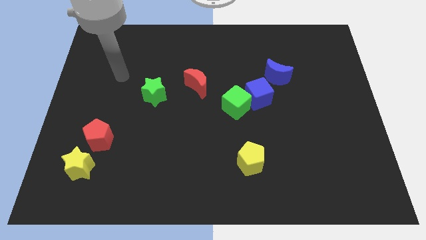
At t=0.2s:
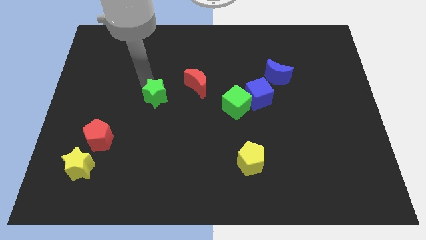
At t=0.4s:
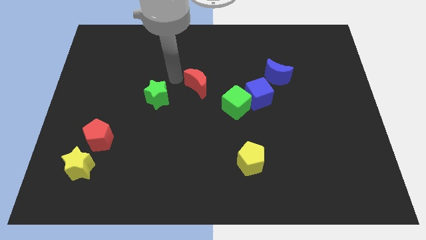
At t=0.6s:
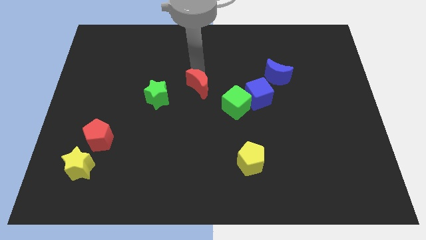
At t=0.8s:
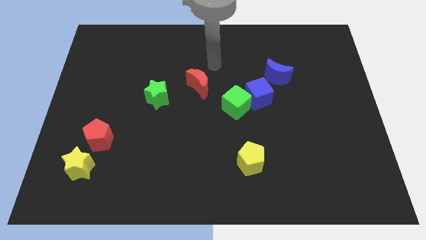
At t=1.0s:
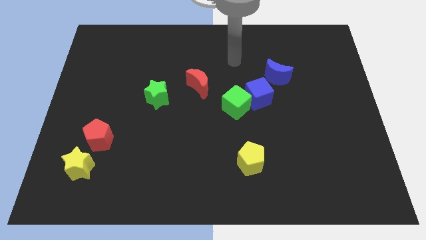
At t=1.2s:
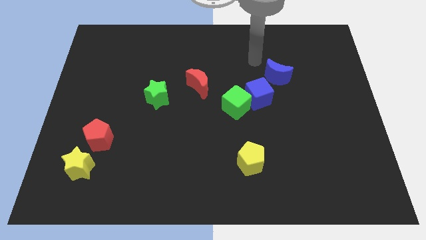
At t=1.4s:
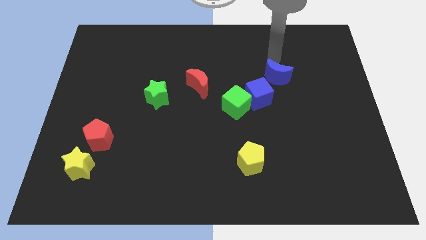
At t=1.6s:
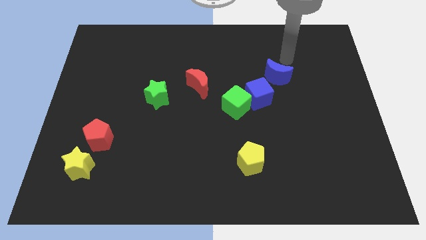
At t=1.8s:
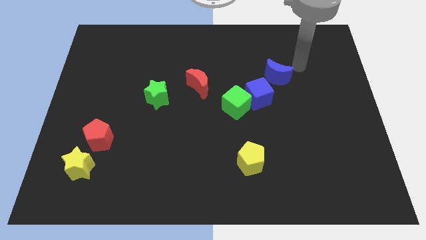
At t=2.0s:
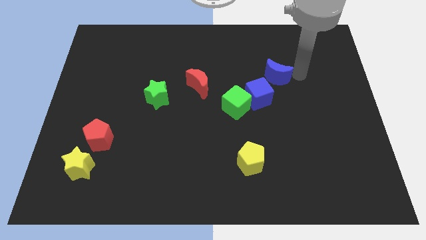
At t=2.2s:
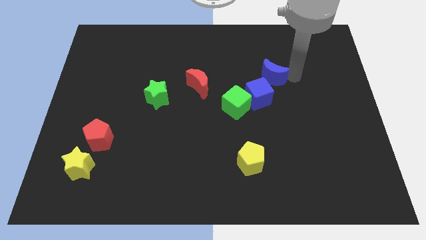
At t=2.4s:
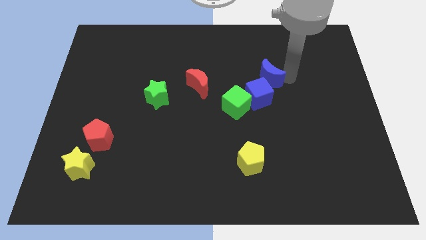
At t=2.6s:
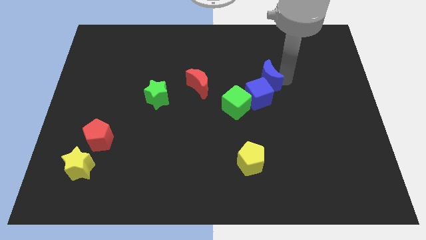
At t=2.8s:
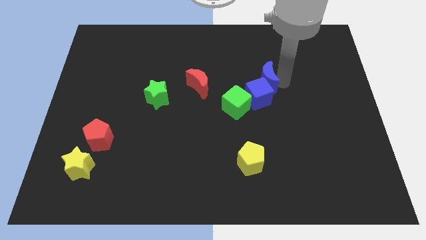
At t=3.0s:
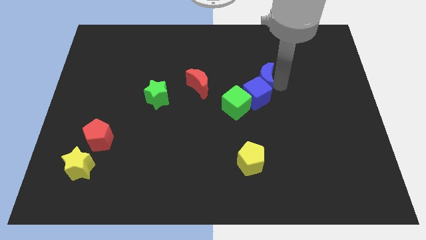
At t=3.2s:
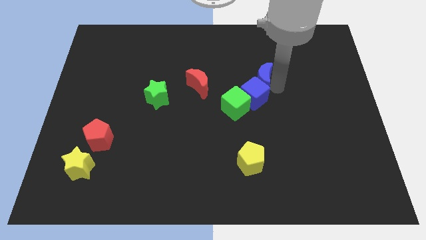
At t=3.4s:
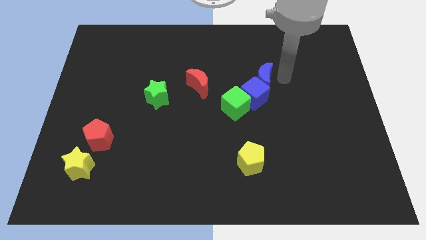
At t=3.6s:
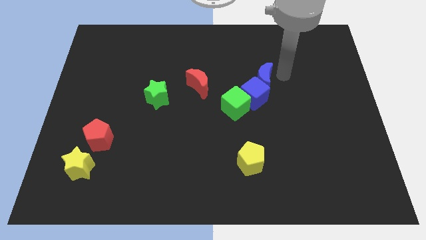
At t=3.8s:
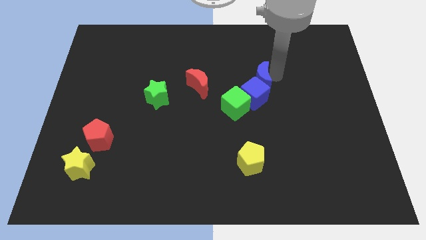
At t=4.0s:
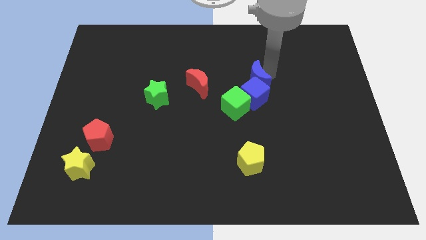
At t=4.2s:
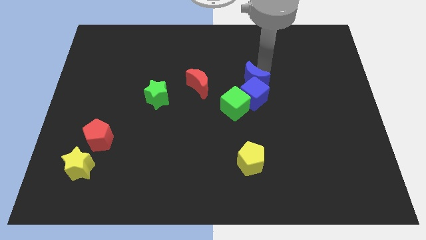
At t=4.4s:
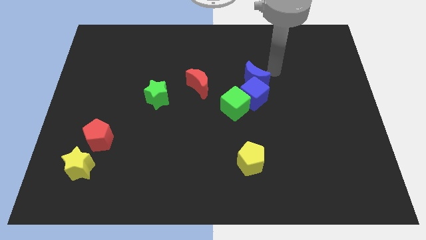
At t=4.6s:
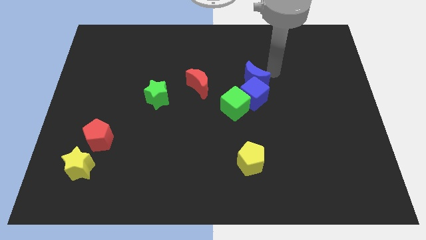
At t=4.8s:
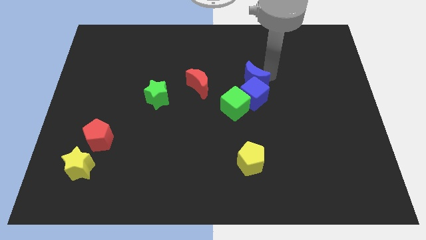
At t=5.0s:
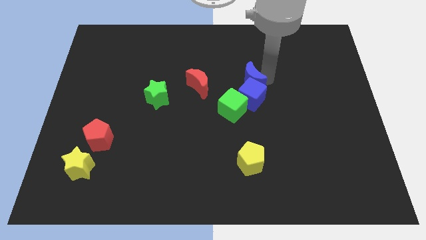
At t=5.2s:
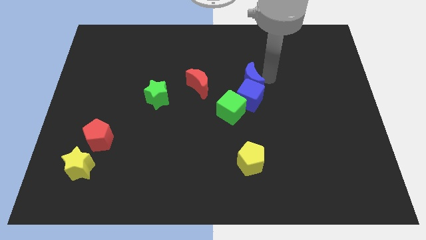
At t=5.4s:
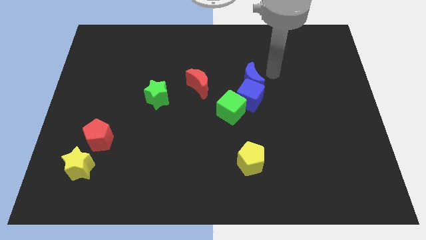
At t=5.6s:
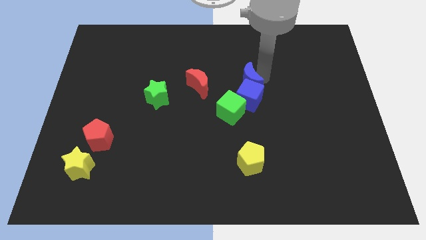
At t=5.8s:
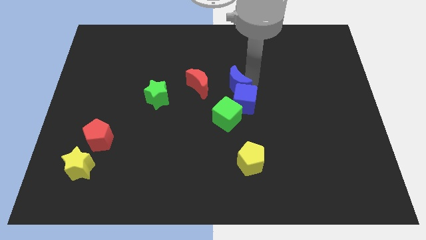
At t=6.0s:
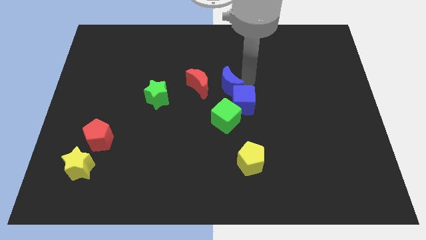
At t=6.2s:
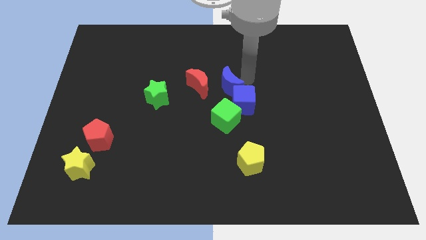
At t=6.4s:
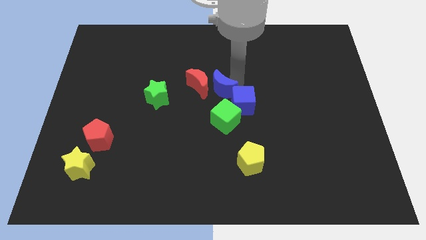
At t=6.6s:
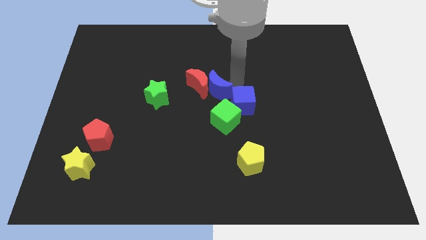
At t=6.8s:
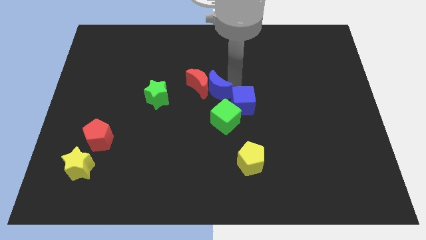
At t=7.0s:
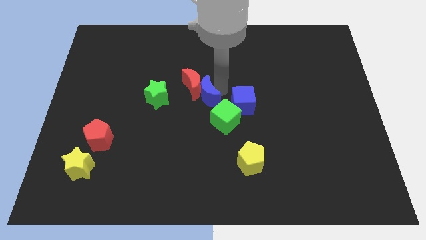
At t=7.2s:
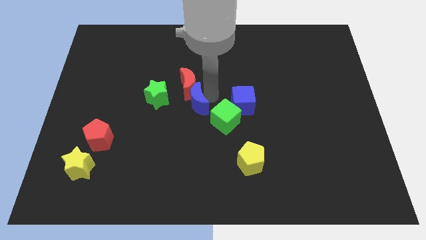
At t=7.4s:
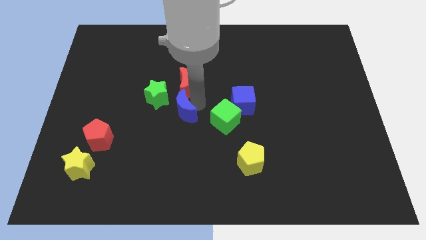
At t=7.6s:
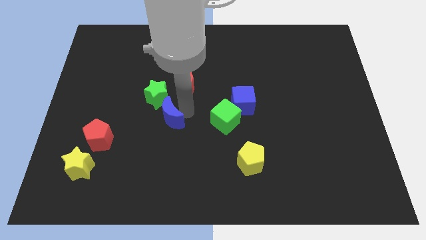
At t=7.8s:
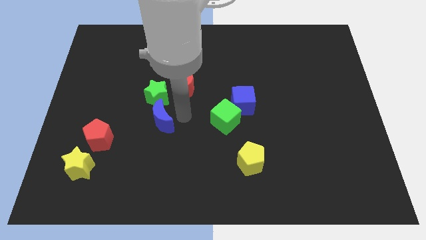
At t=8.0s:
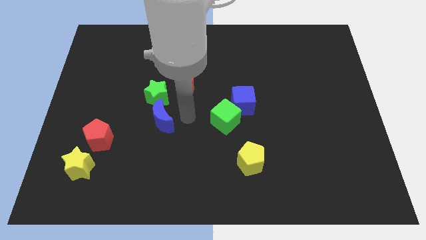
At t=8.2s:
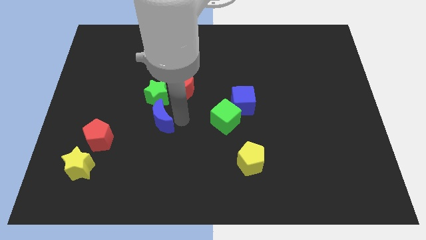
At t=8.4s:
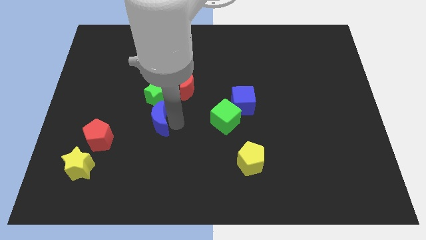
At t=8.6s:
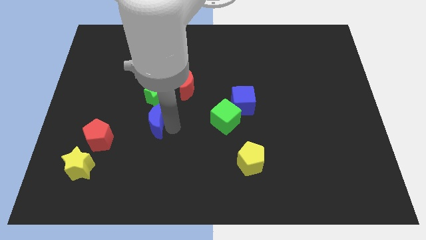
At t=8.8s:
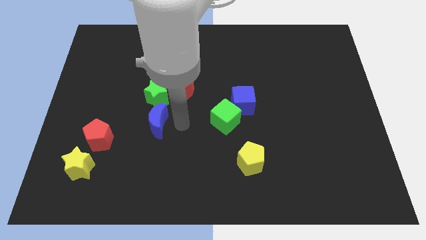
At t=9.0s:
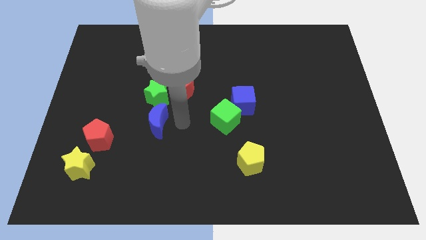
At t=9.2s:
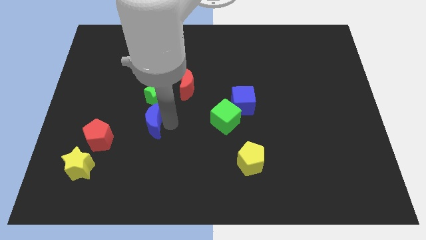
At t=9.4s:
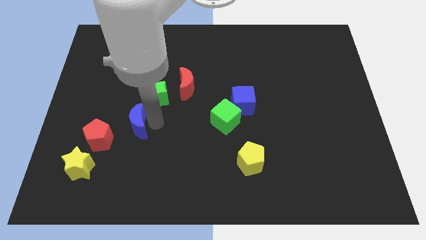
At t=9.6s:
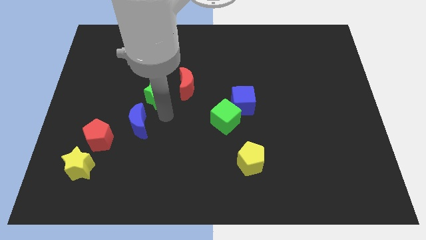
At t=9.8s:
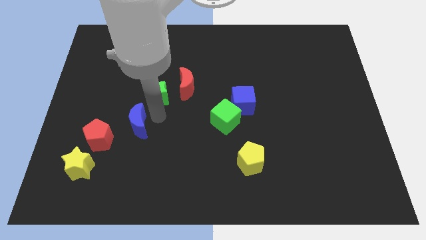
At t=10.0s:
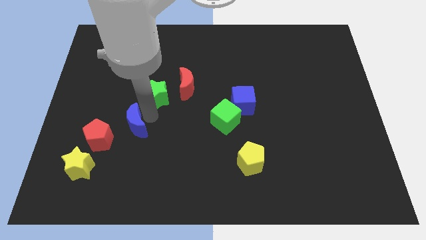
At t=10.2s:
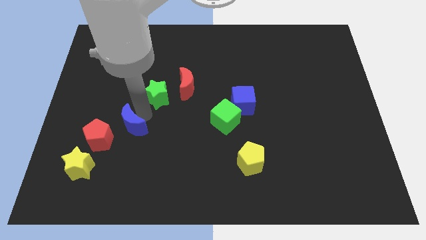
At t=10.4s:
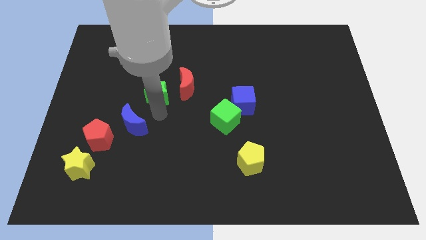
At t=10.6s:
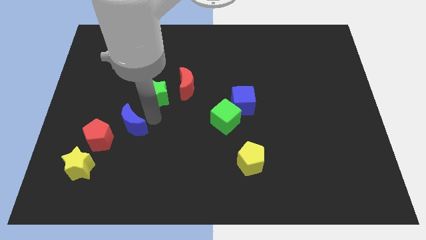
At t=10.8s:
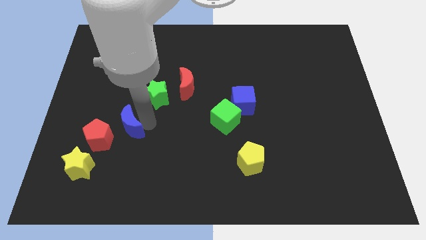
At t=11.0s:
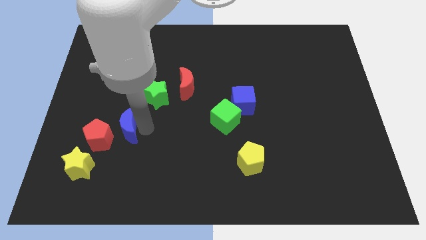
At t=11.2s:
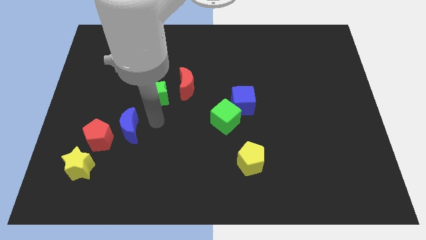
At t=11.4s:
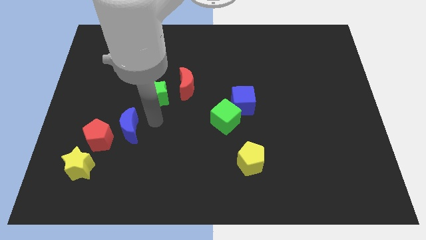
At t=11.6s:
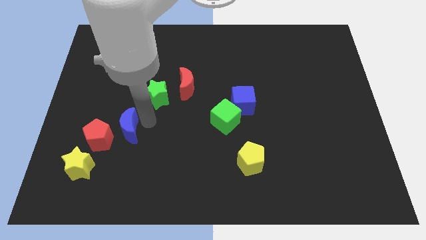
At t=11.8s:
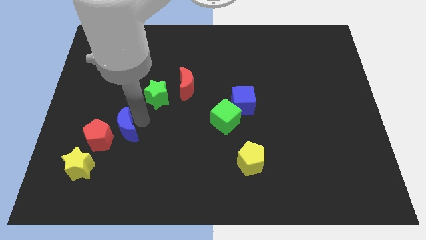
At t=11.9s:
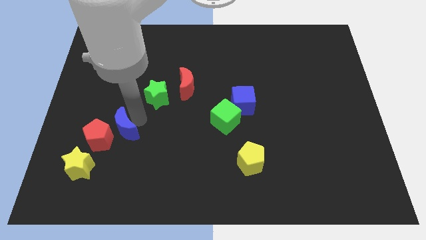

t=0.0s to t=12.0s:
put the blue moon close to the red pentagon
